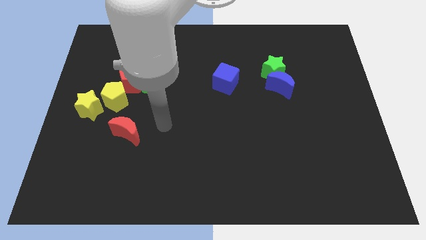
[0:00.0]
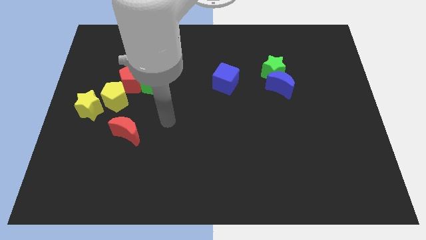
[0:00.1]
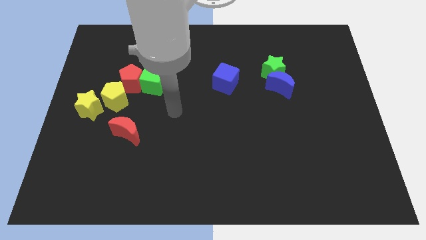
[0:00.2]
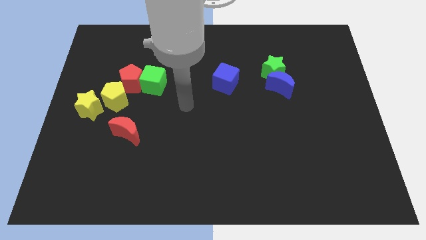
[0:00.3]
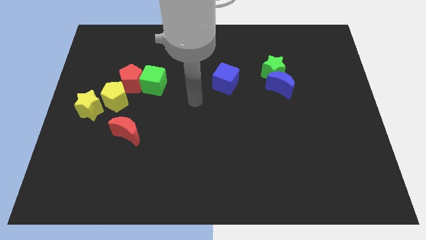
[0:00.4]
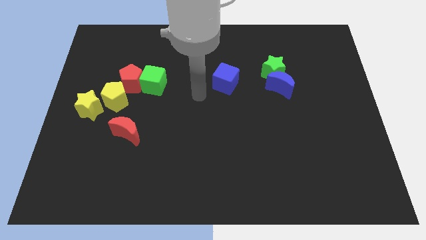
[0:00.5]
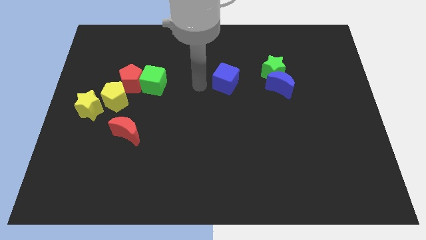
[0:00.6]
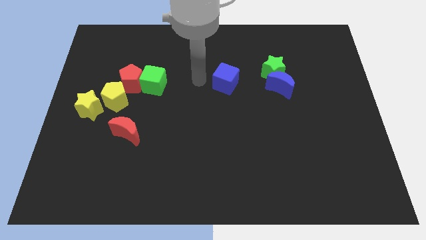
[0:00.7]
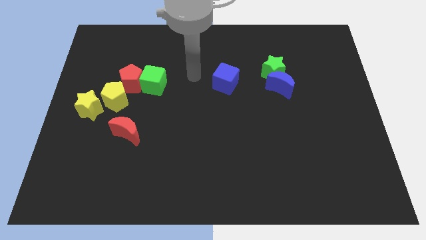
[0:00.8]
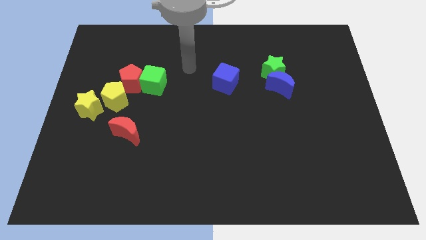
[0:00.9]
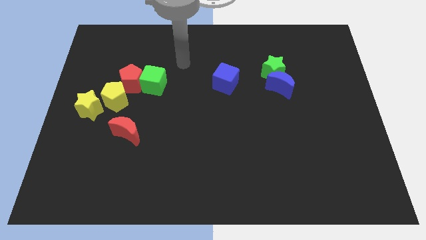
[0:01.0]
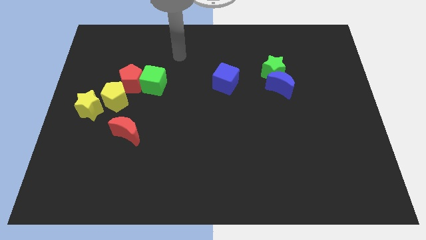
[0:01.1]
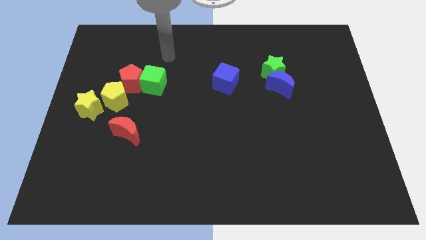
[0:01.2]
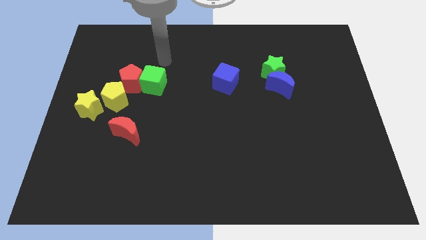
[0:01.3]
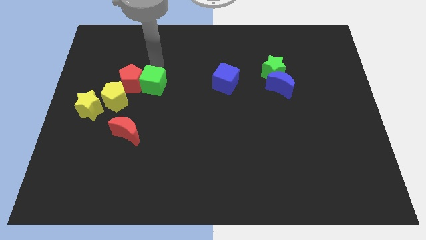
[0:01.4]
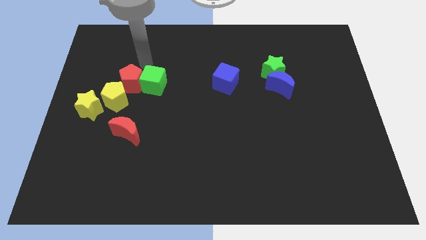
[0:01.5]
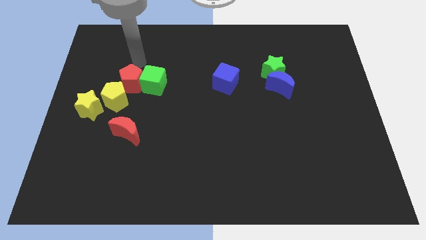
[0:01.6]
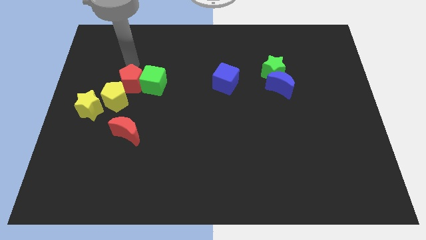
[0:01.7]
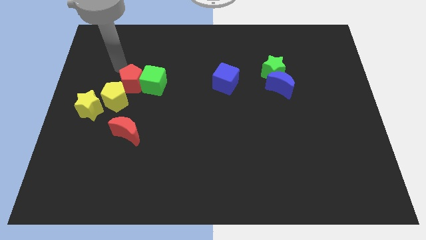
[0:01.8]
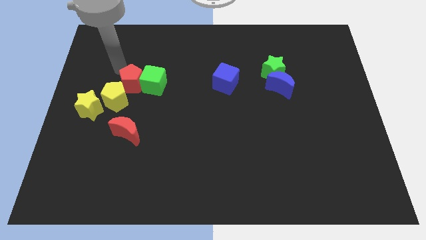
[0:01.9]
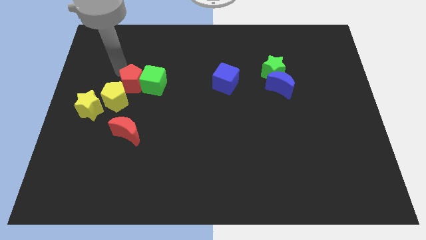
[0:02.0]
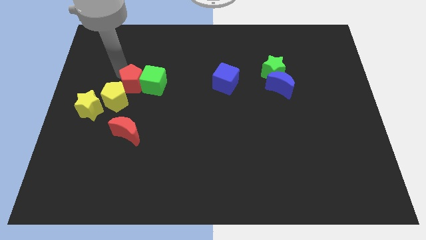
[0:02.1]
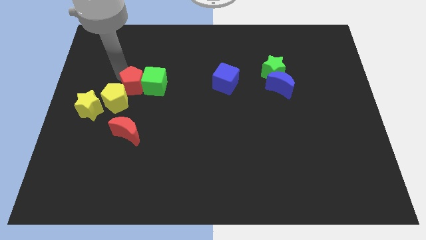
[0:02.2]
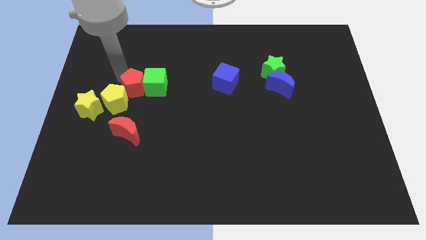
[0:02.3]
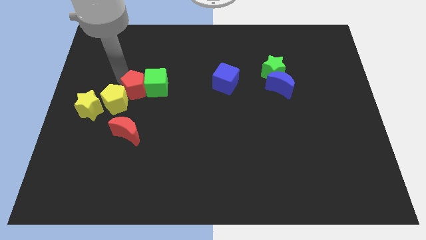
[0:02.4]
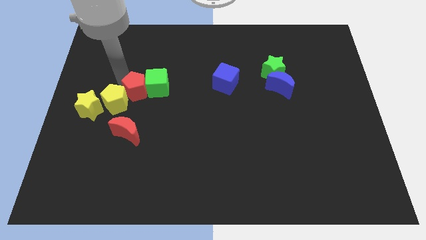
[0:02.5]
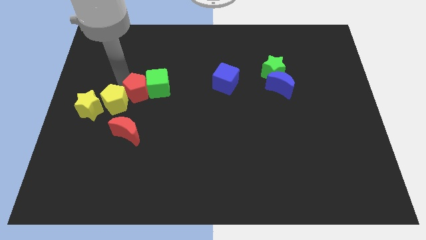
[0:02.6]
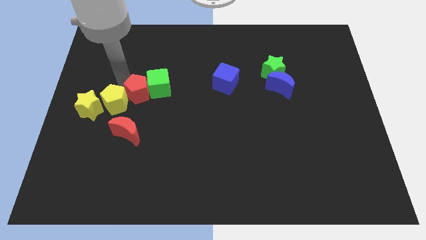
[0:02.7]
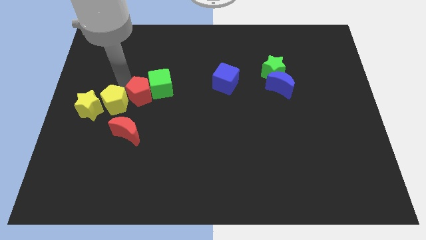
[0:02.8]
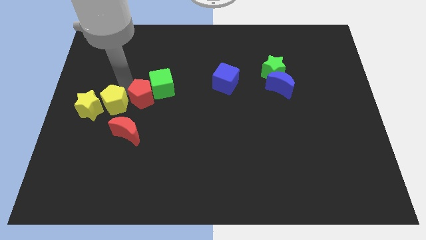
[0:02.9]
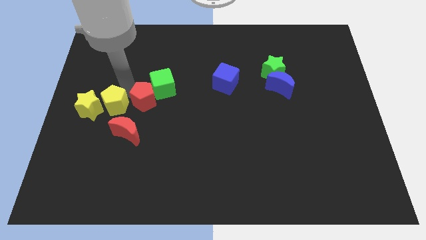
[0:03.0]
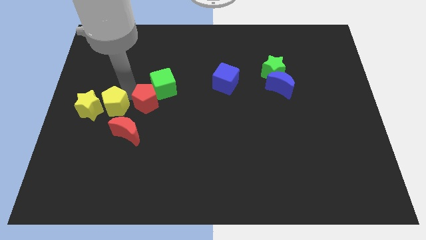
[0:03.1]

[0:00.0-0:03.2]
slide the red pentagon downwards and then to the right a little bit

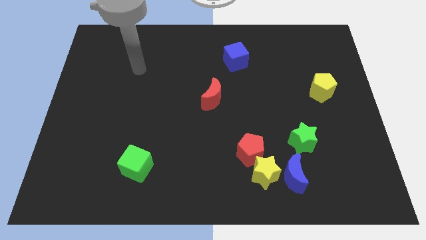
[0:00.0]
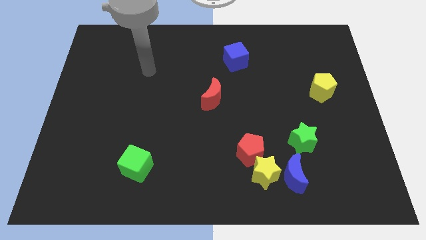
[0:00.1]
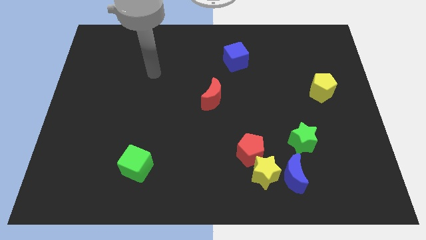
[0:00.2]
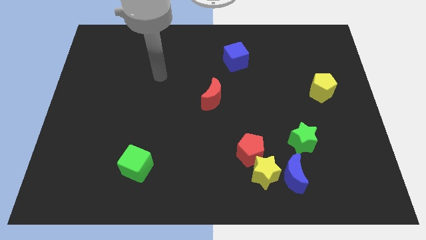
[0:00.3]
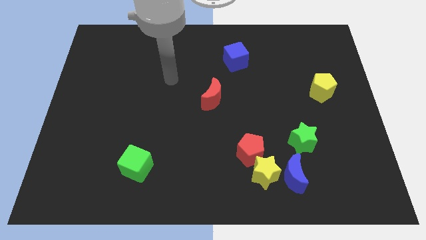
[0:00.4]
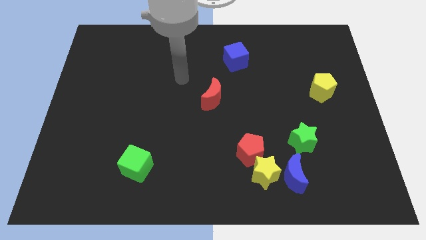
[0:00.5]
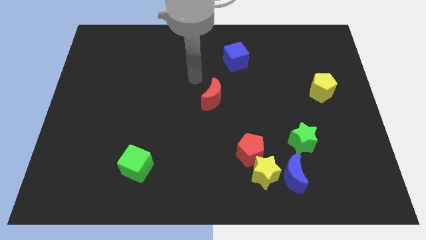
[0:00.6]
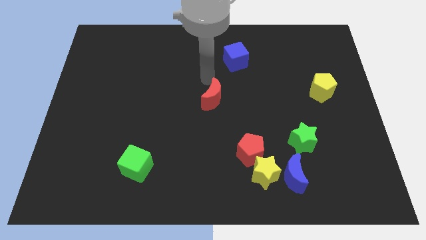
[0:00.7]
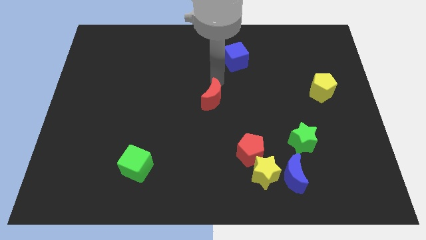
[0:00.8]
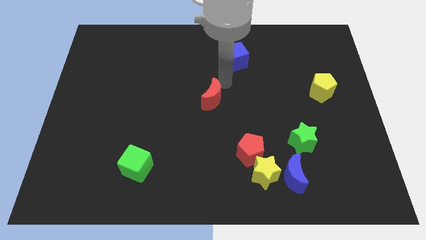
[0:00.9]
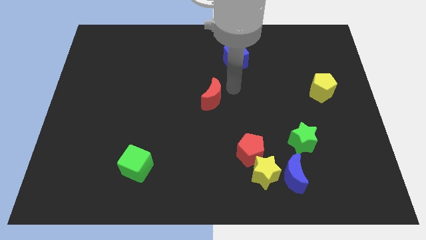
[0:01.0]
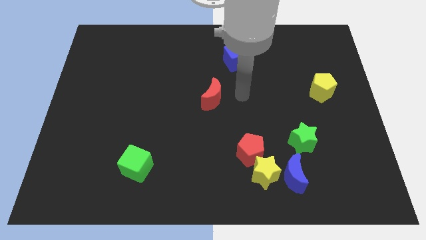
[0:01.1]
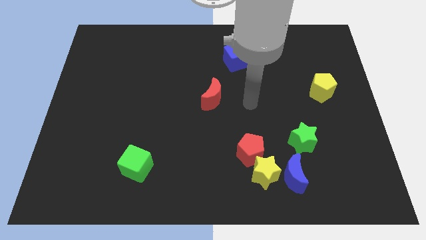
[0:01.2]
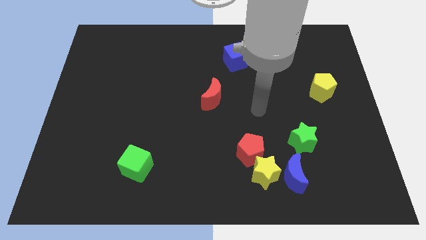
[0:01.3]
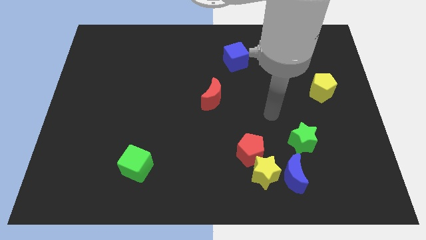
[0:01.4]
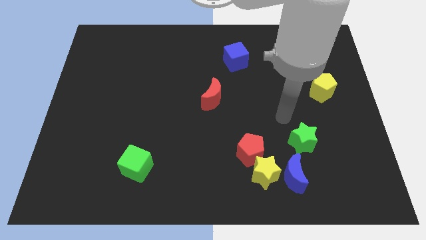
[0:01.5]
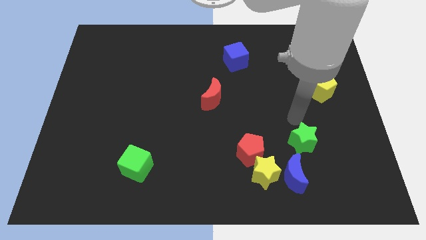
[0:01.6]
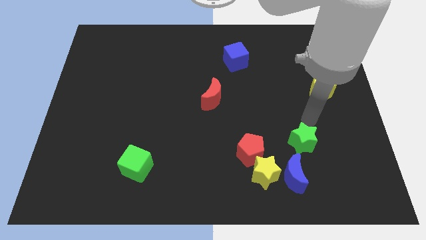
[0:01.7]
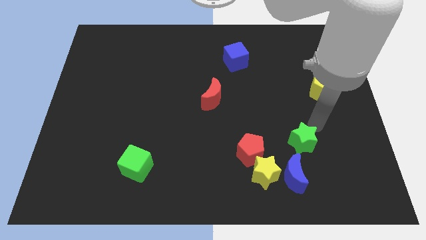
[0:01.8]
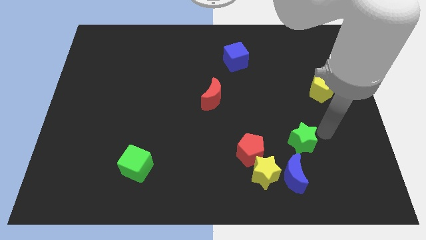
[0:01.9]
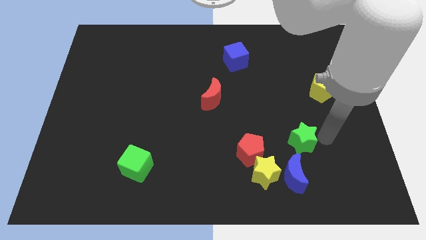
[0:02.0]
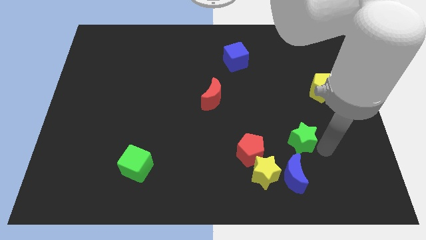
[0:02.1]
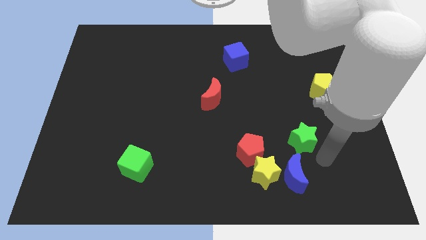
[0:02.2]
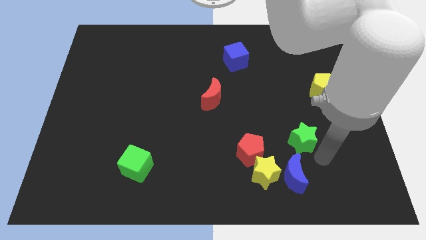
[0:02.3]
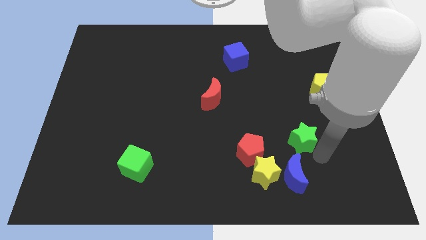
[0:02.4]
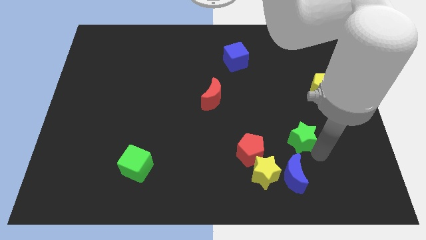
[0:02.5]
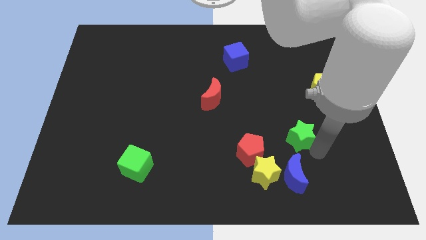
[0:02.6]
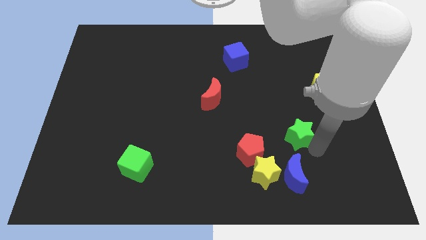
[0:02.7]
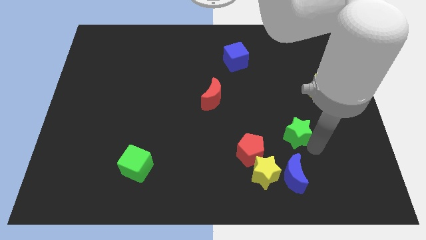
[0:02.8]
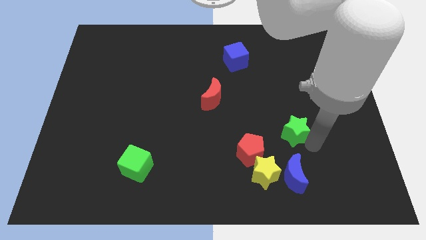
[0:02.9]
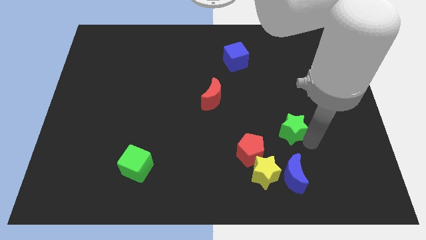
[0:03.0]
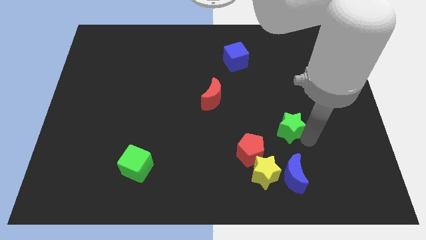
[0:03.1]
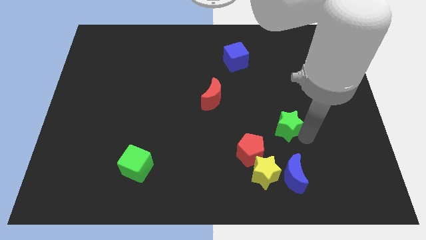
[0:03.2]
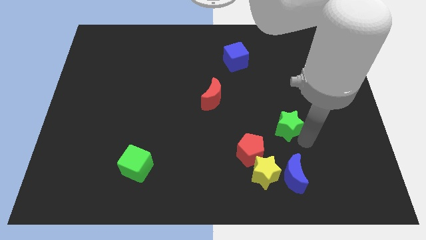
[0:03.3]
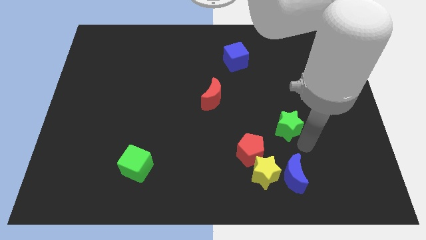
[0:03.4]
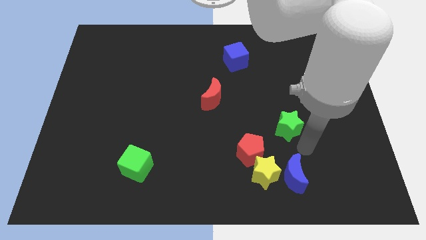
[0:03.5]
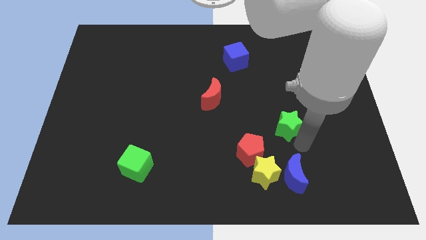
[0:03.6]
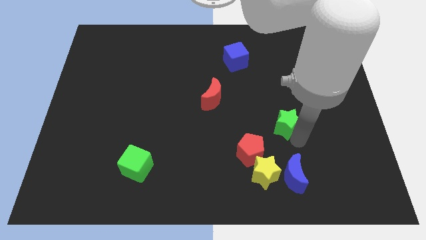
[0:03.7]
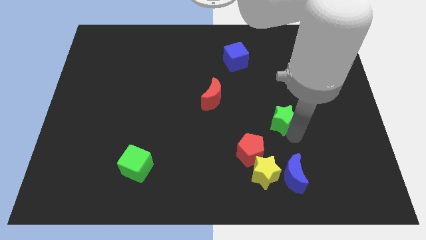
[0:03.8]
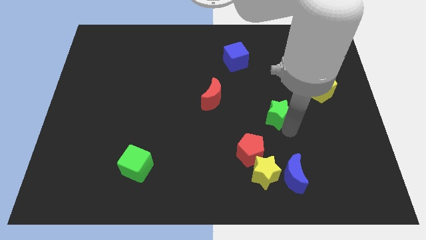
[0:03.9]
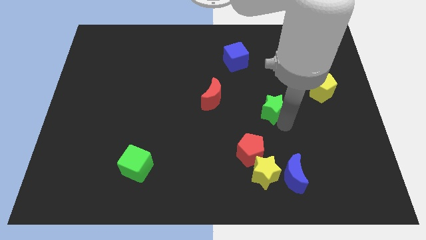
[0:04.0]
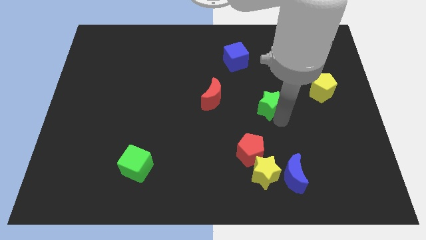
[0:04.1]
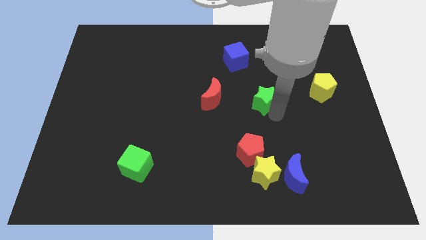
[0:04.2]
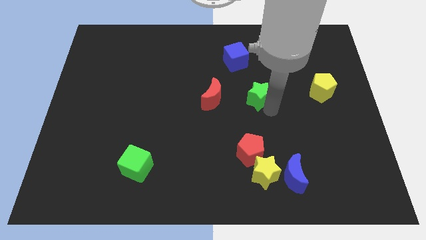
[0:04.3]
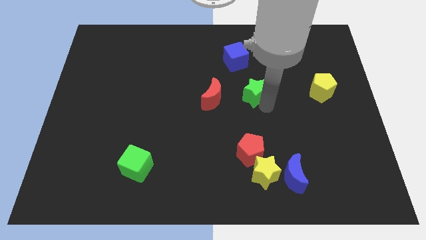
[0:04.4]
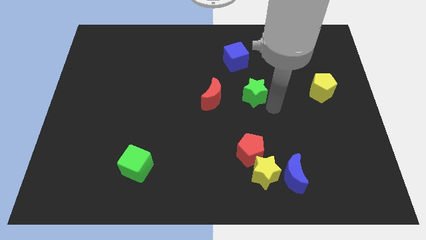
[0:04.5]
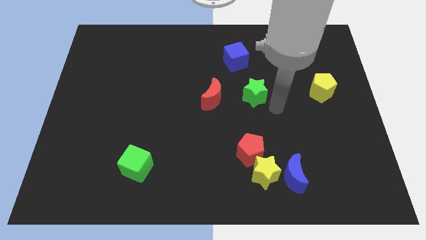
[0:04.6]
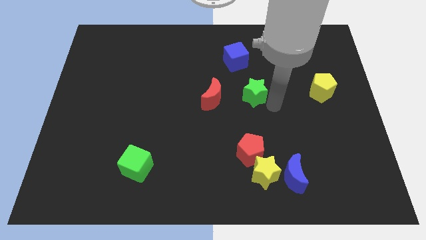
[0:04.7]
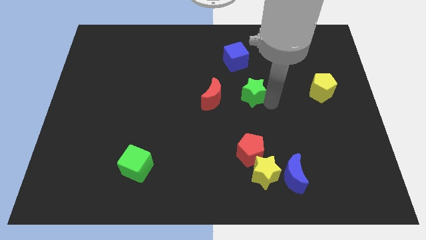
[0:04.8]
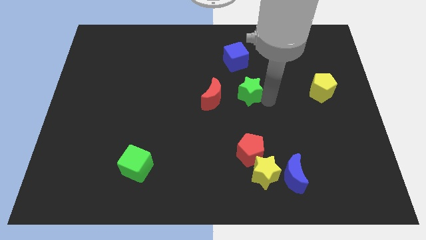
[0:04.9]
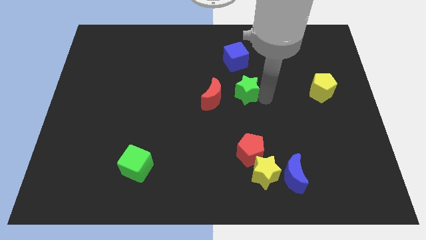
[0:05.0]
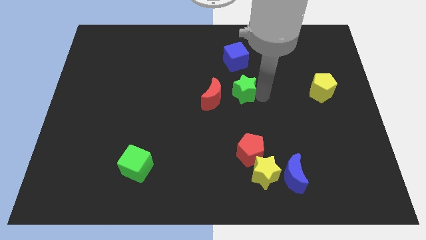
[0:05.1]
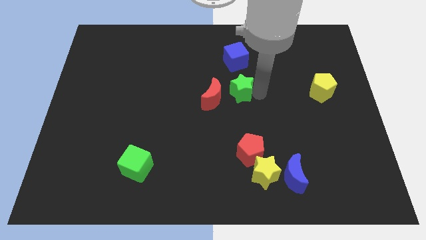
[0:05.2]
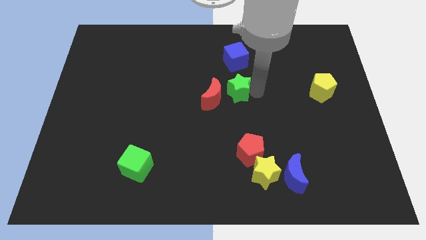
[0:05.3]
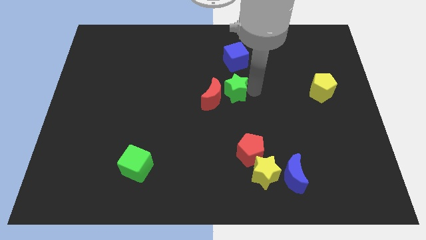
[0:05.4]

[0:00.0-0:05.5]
move the green star up and left
